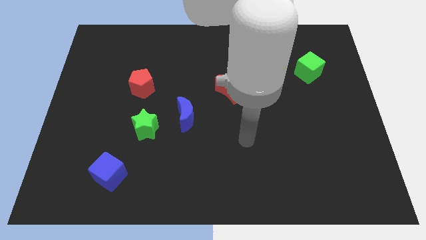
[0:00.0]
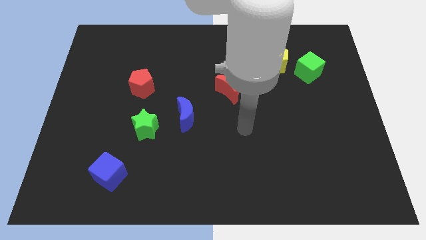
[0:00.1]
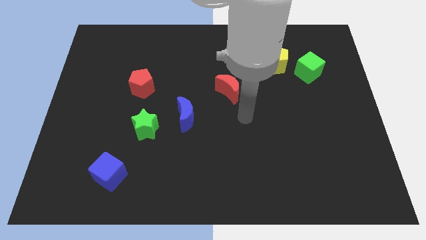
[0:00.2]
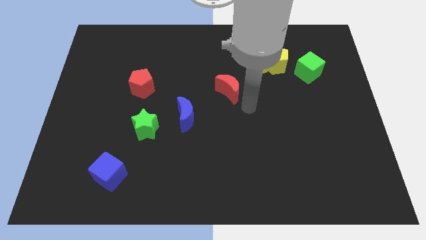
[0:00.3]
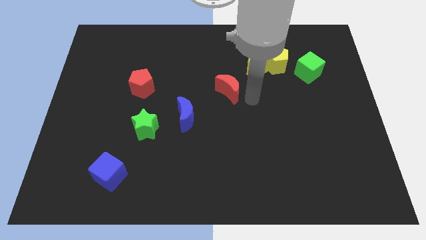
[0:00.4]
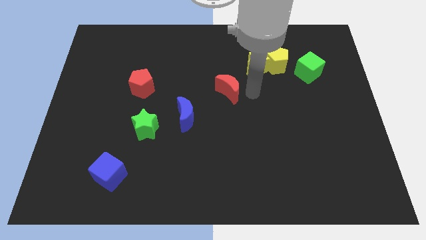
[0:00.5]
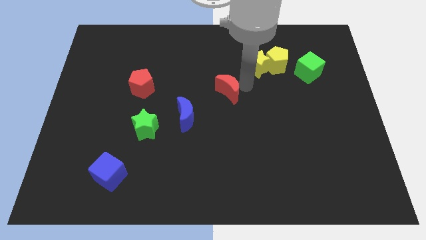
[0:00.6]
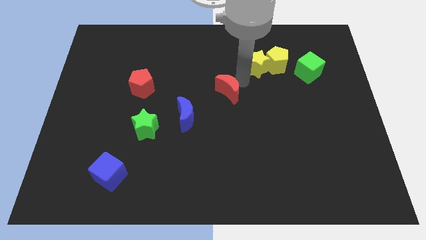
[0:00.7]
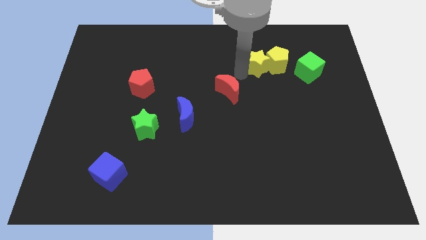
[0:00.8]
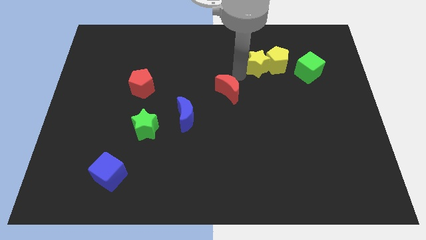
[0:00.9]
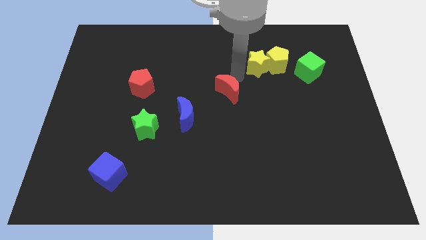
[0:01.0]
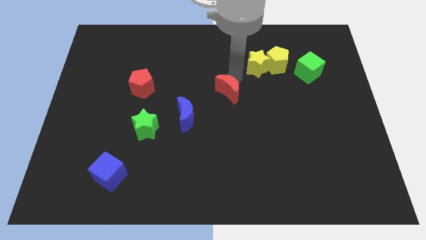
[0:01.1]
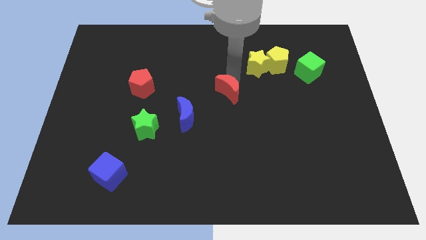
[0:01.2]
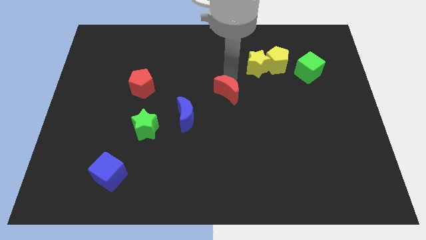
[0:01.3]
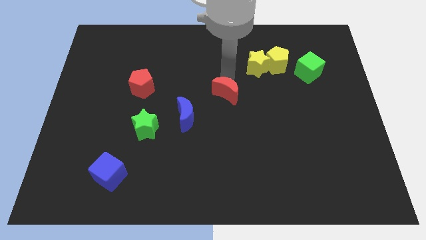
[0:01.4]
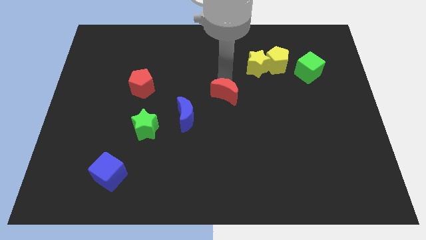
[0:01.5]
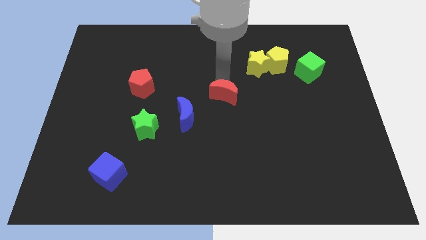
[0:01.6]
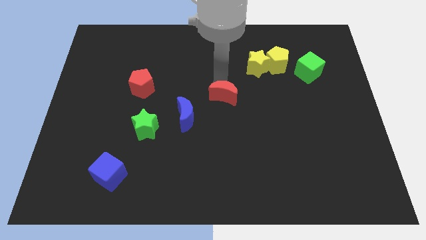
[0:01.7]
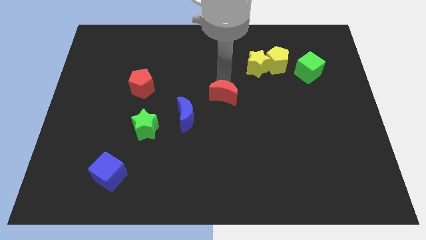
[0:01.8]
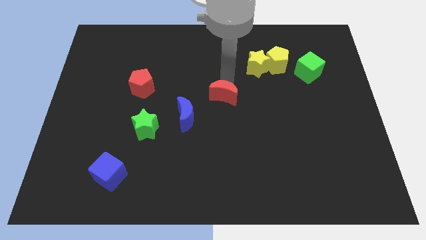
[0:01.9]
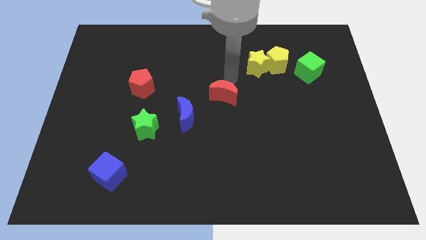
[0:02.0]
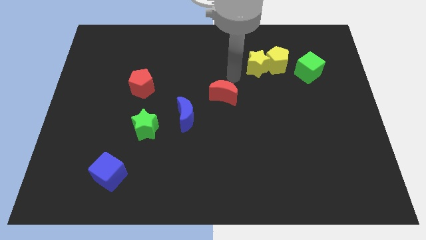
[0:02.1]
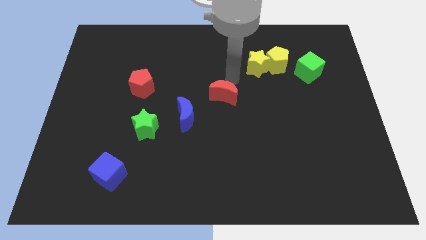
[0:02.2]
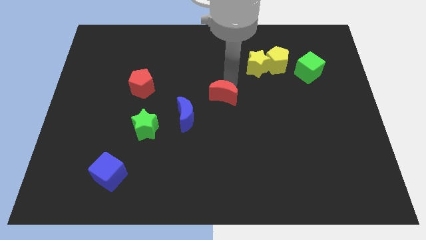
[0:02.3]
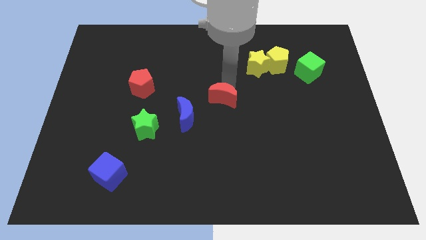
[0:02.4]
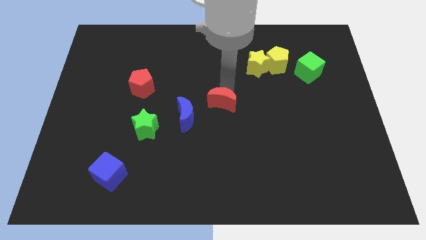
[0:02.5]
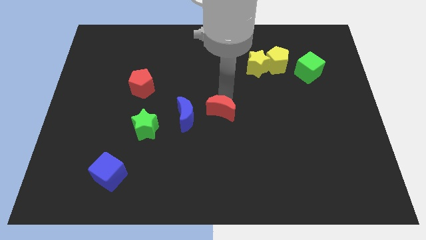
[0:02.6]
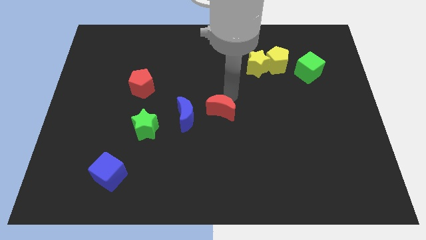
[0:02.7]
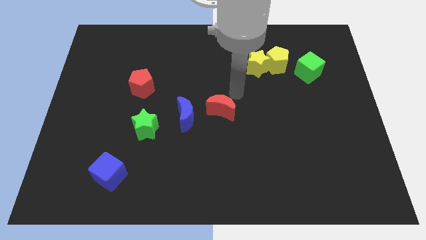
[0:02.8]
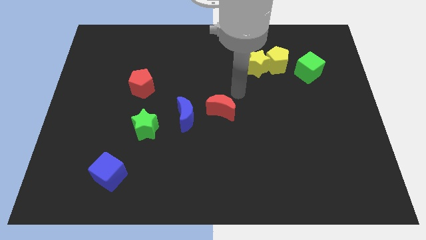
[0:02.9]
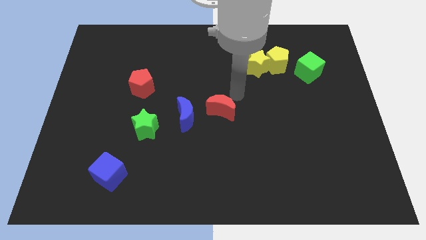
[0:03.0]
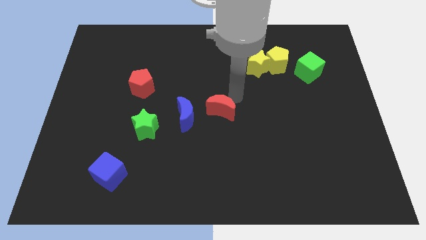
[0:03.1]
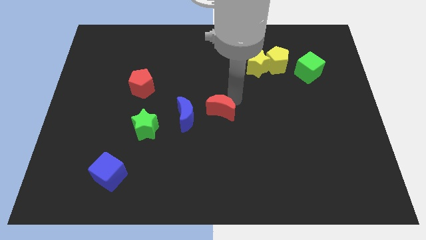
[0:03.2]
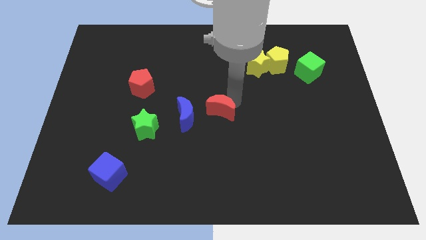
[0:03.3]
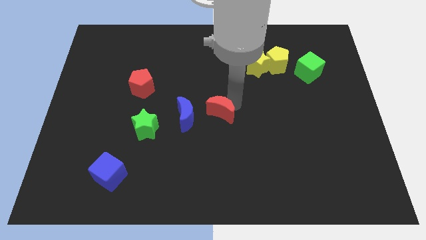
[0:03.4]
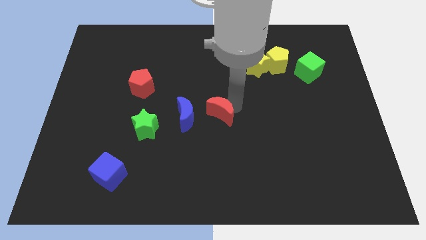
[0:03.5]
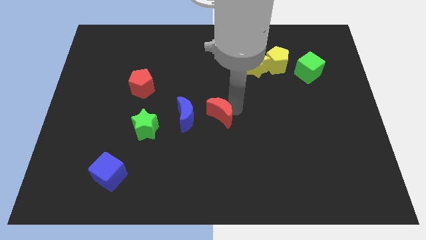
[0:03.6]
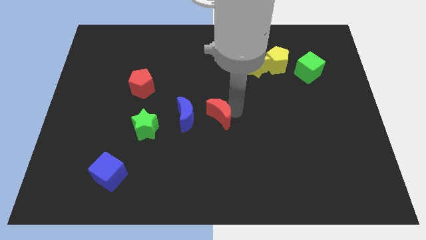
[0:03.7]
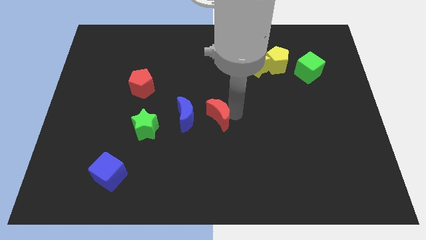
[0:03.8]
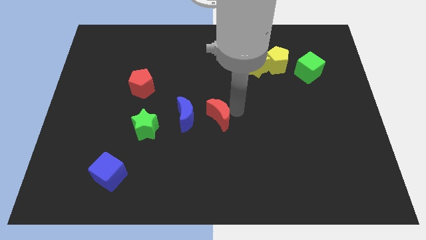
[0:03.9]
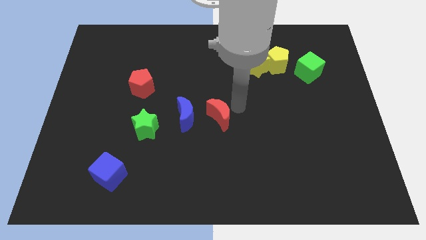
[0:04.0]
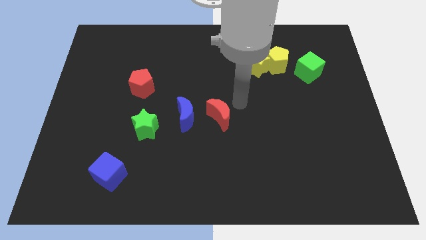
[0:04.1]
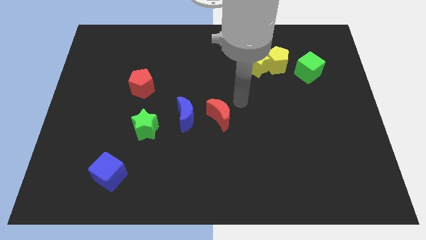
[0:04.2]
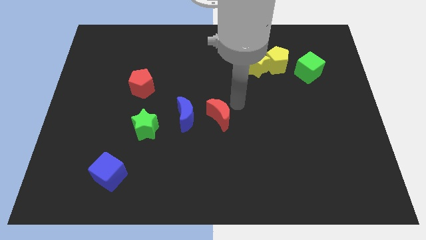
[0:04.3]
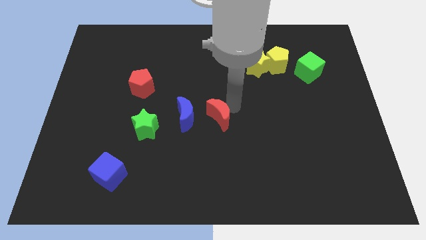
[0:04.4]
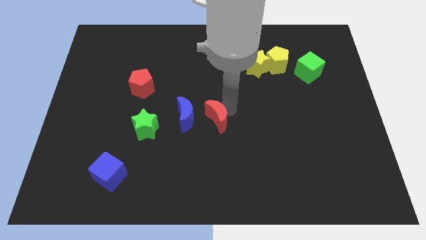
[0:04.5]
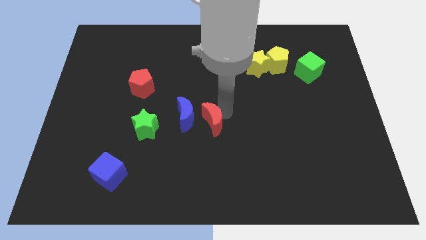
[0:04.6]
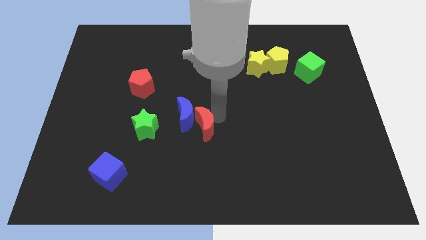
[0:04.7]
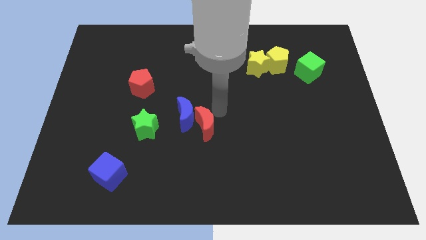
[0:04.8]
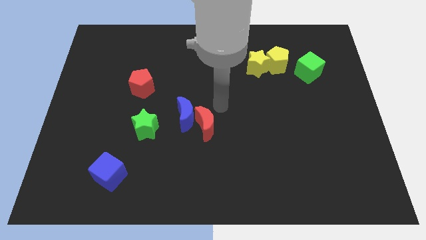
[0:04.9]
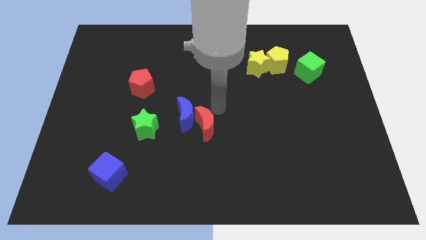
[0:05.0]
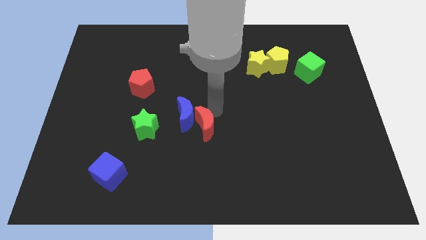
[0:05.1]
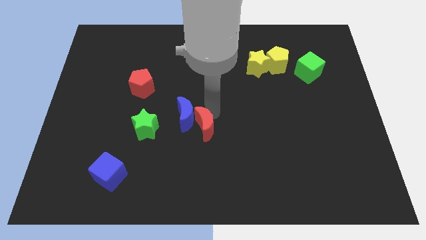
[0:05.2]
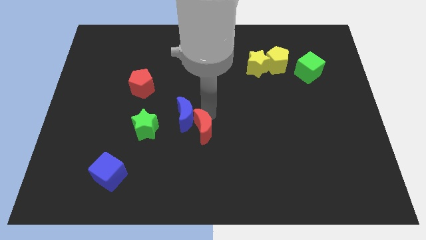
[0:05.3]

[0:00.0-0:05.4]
put the red moon to the bottom of the blue moon

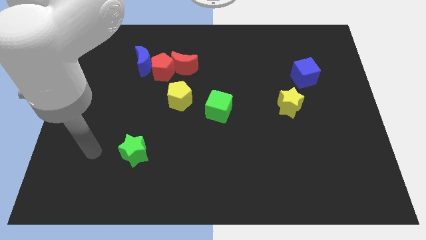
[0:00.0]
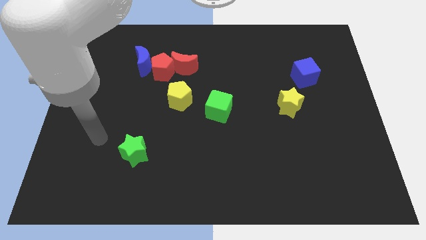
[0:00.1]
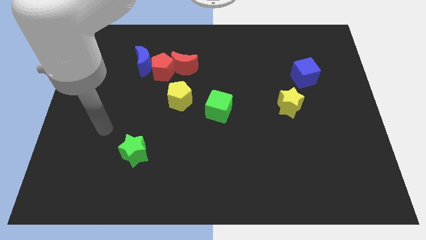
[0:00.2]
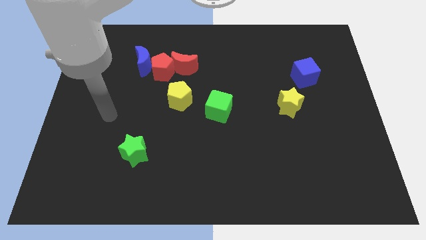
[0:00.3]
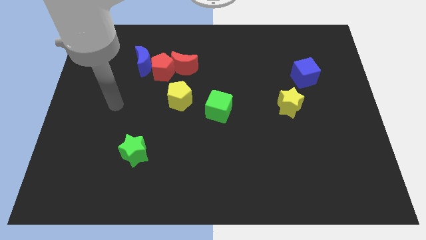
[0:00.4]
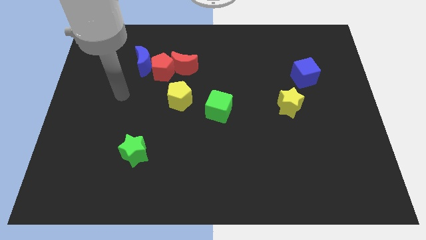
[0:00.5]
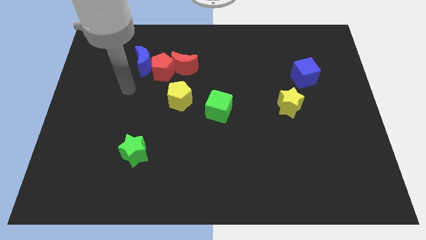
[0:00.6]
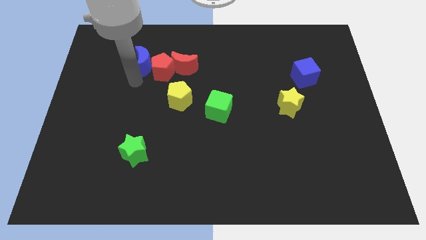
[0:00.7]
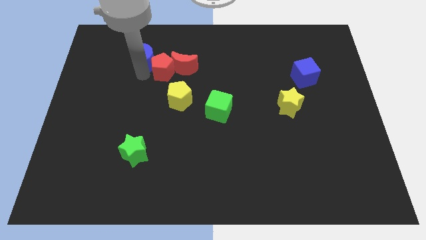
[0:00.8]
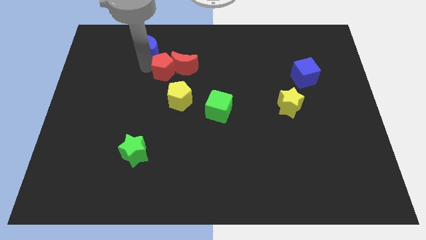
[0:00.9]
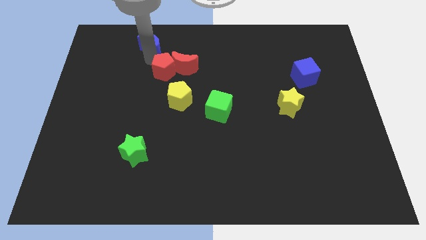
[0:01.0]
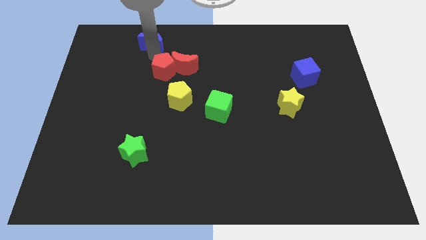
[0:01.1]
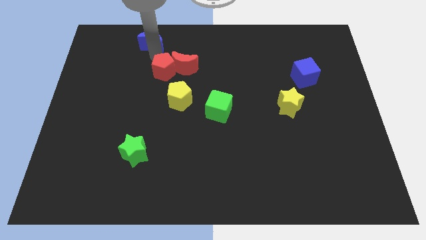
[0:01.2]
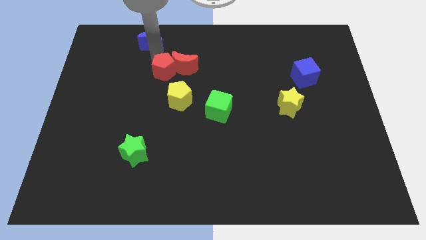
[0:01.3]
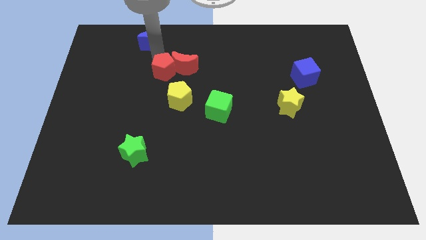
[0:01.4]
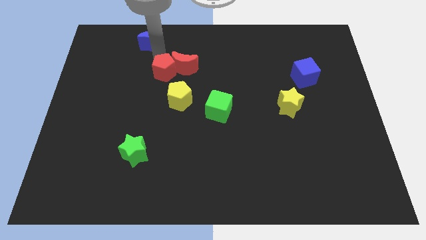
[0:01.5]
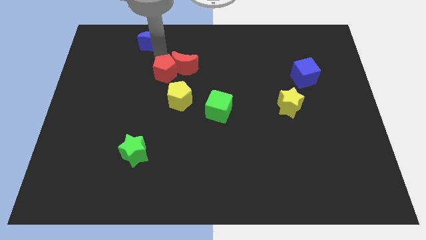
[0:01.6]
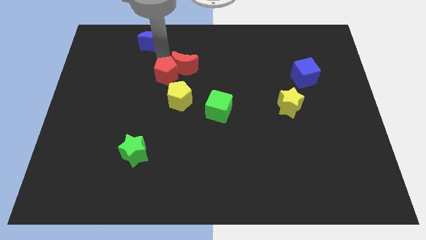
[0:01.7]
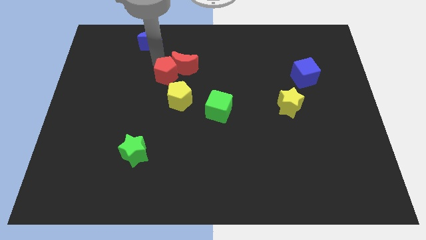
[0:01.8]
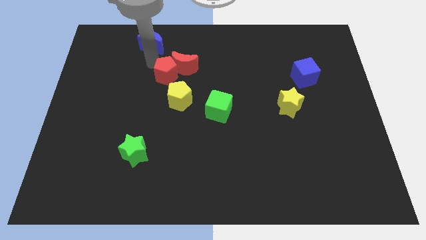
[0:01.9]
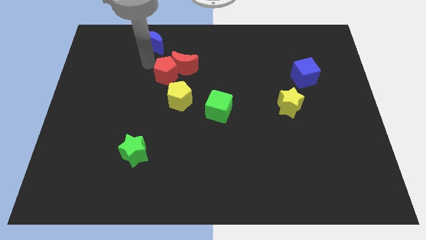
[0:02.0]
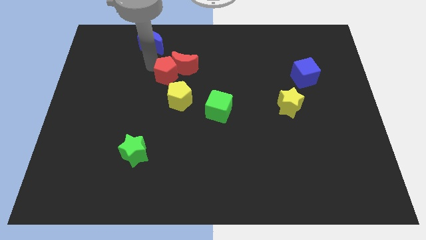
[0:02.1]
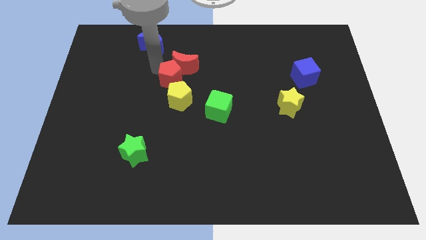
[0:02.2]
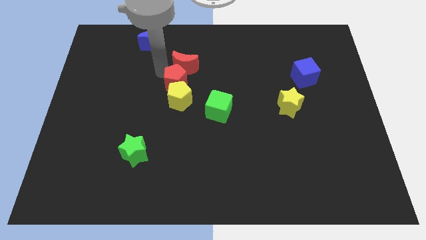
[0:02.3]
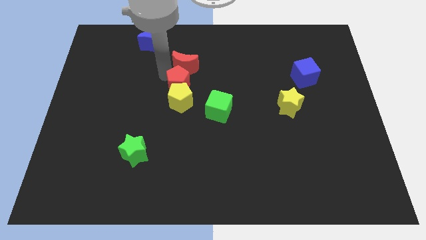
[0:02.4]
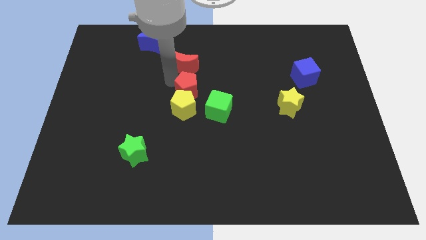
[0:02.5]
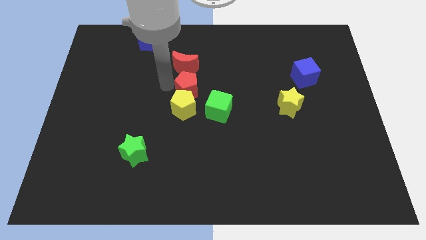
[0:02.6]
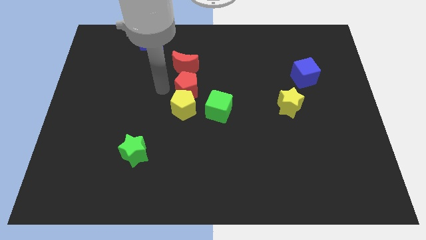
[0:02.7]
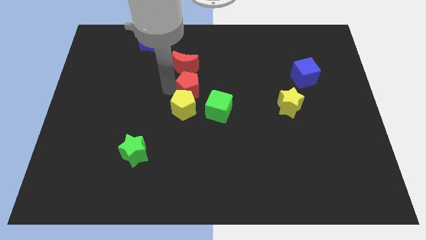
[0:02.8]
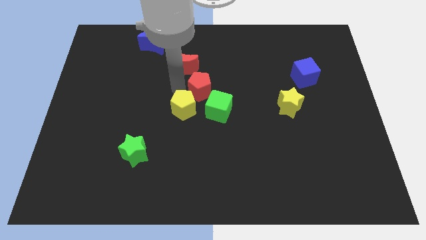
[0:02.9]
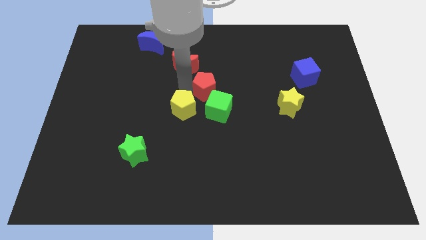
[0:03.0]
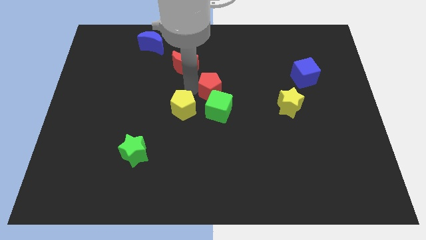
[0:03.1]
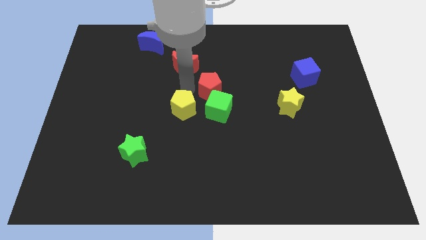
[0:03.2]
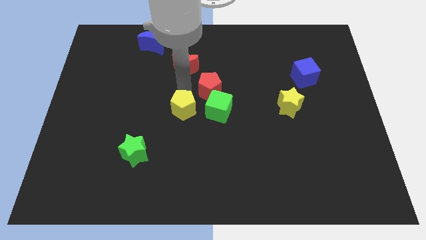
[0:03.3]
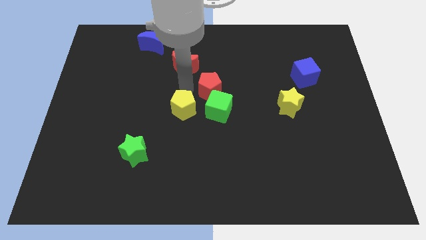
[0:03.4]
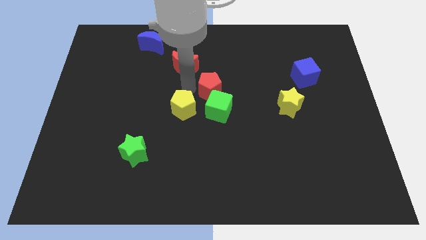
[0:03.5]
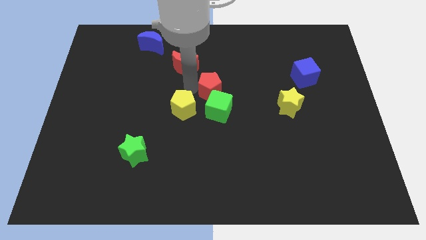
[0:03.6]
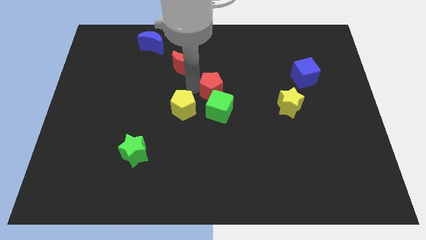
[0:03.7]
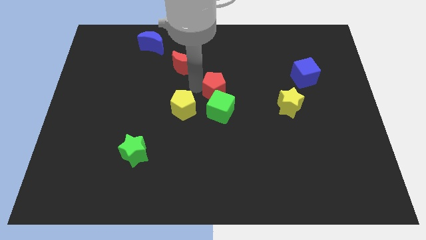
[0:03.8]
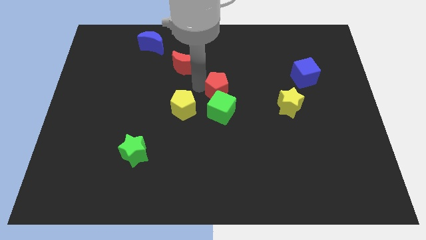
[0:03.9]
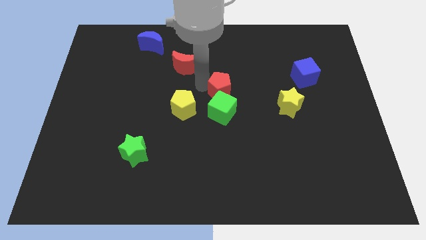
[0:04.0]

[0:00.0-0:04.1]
put the red pentagon to the top right side of the green cube
